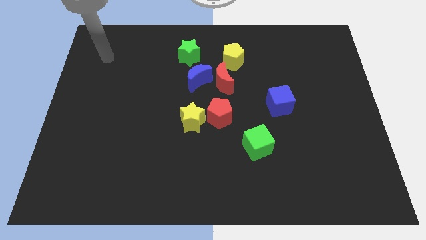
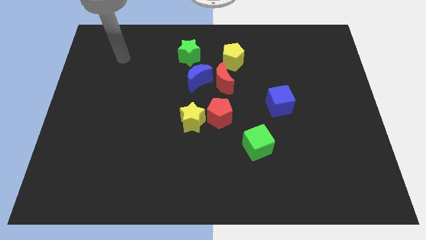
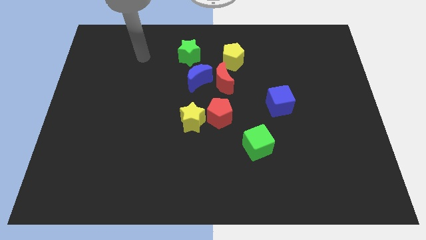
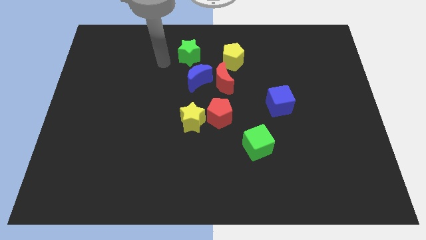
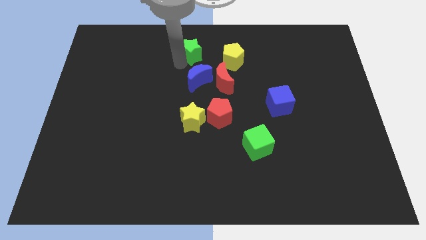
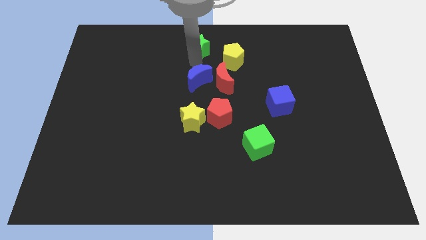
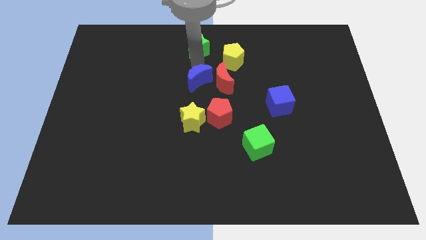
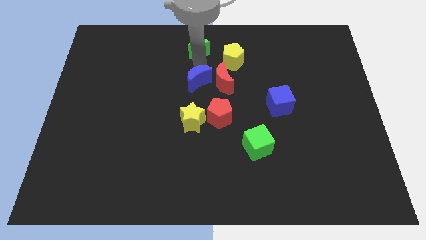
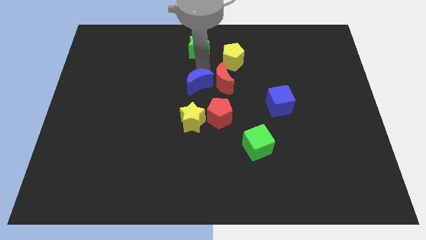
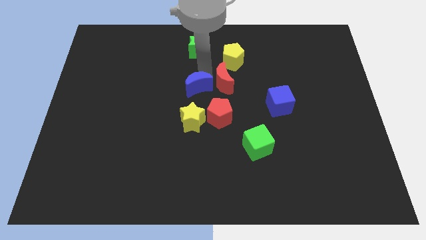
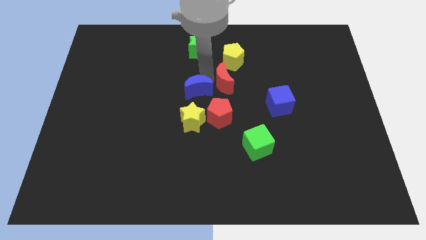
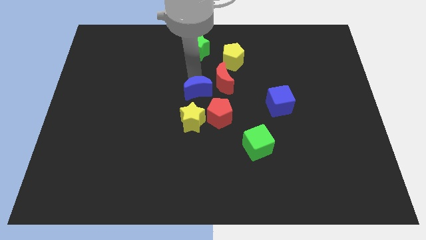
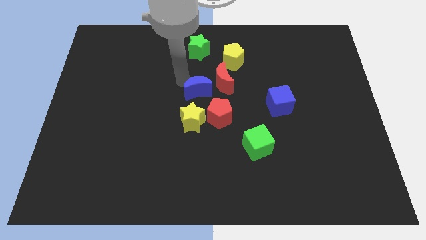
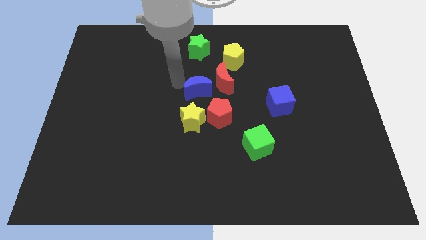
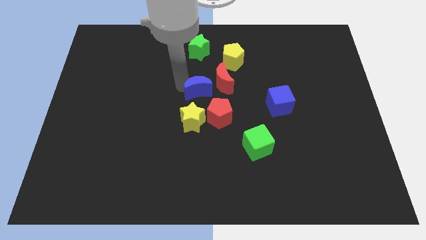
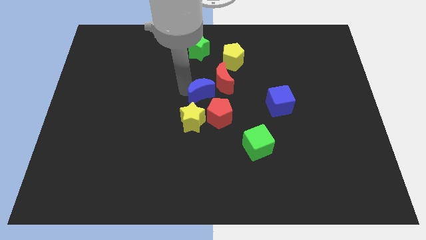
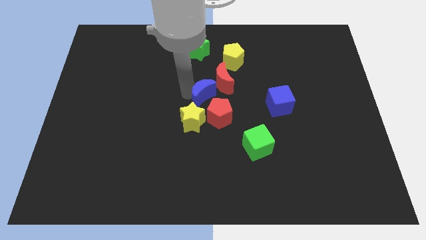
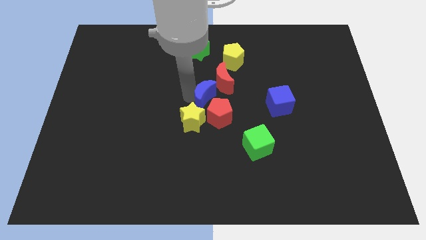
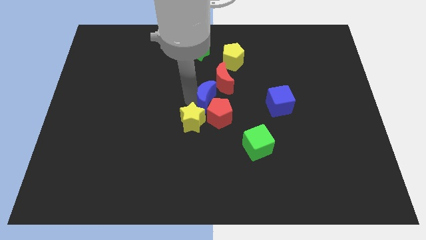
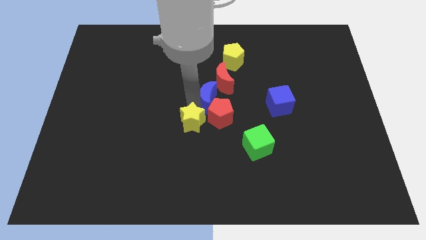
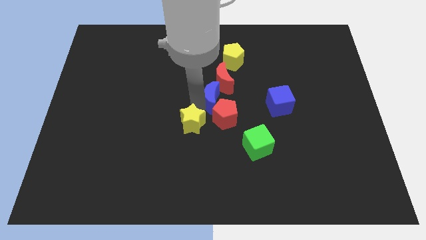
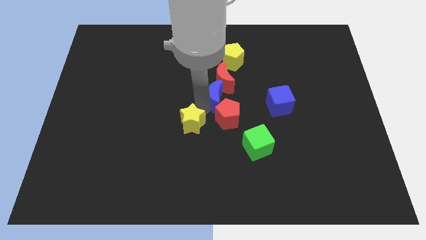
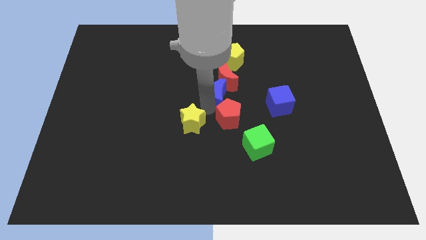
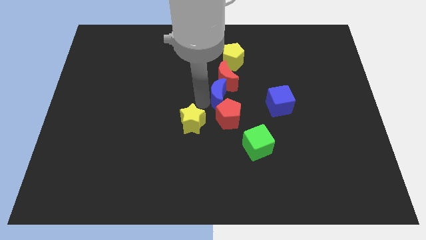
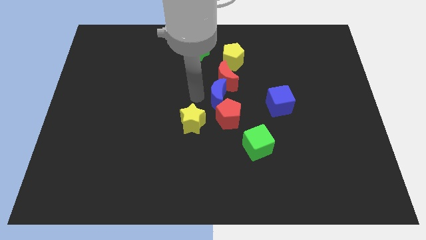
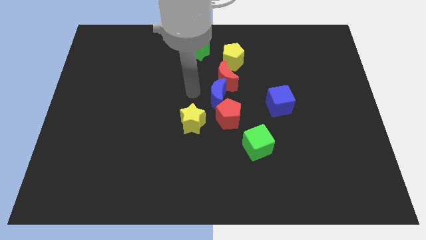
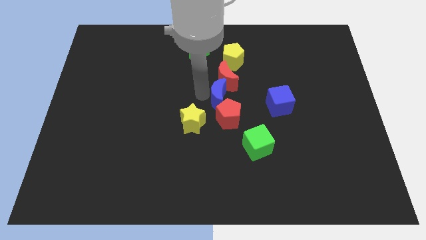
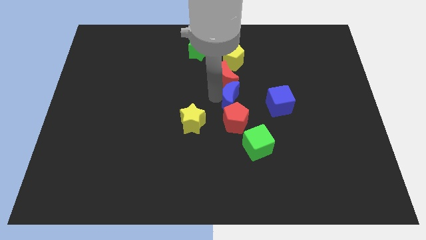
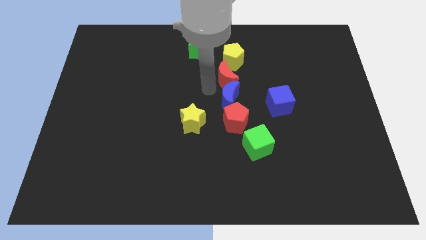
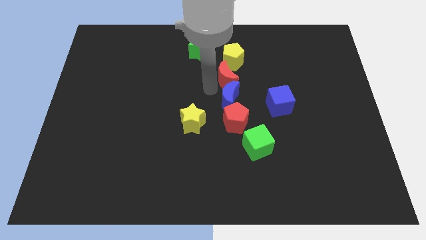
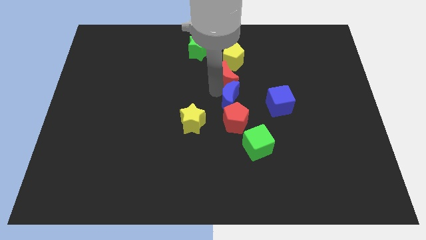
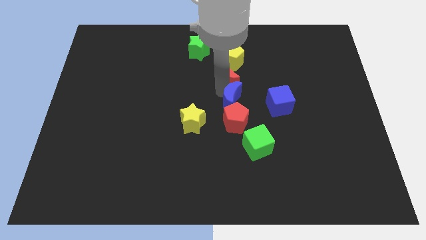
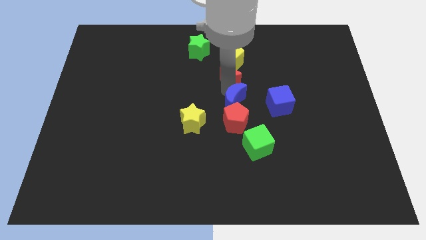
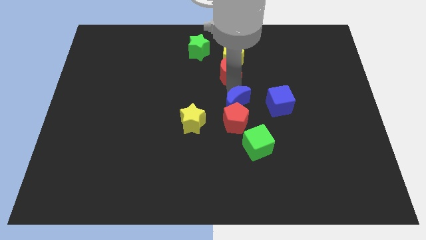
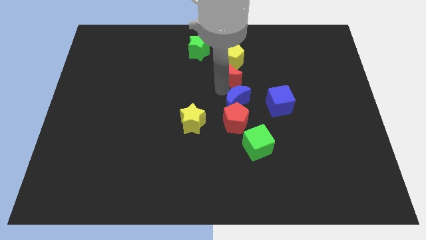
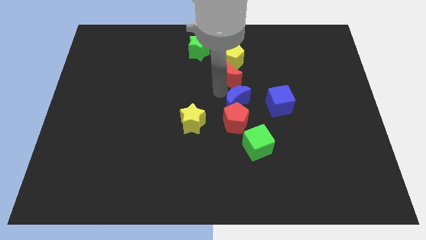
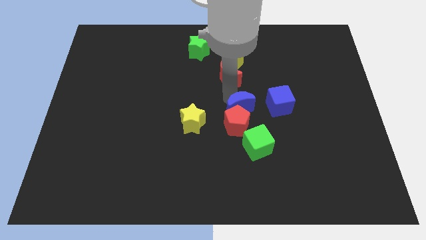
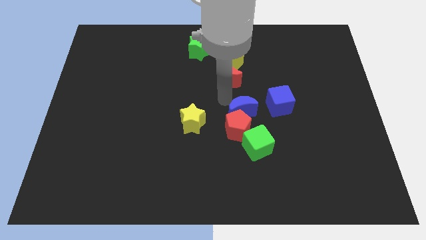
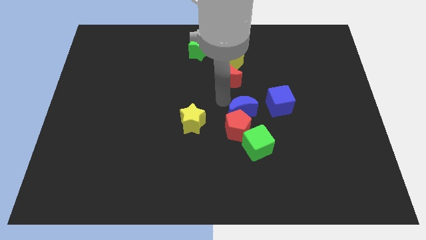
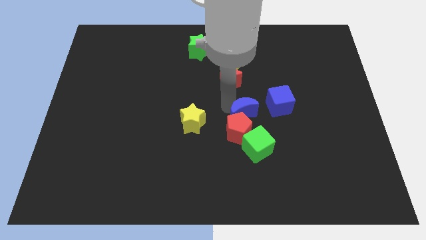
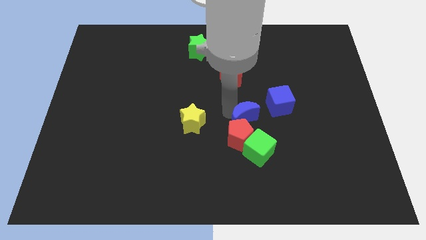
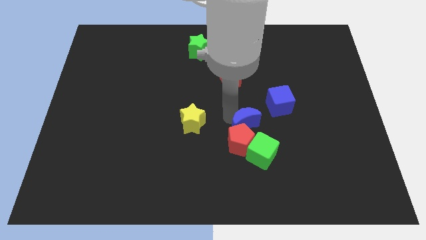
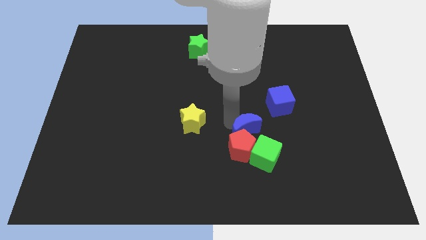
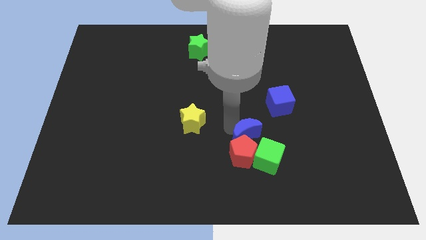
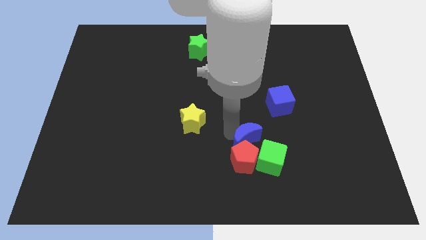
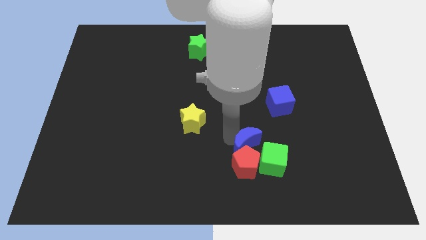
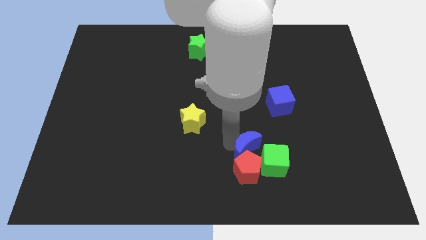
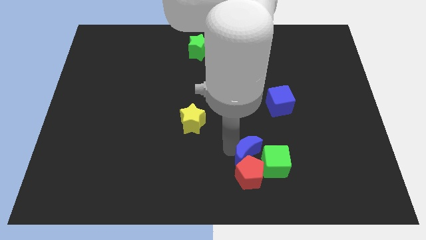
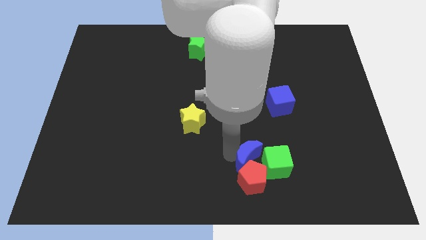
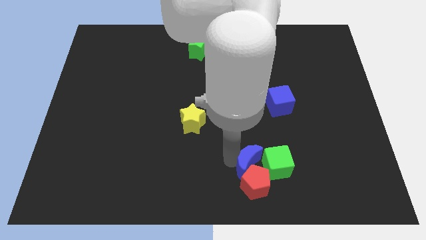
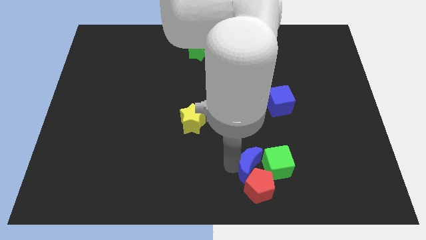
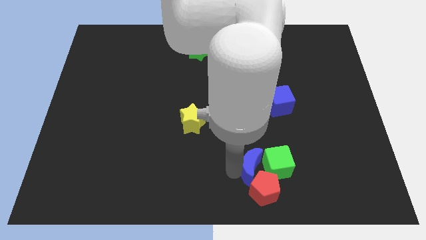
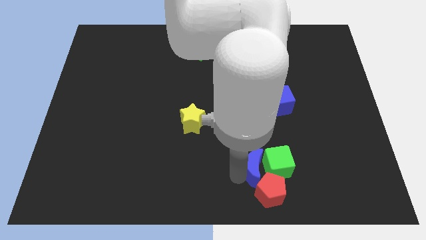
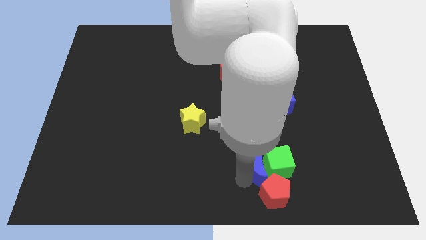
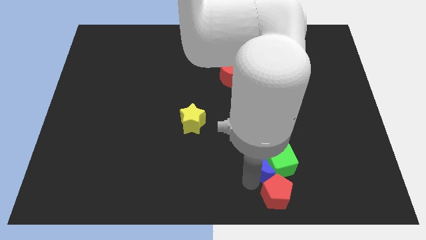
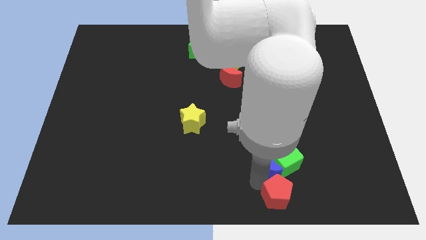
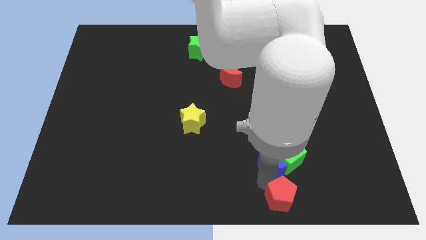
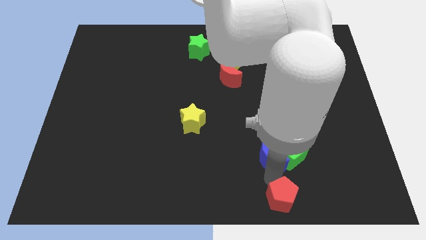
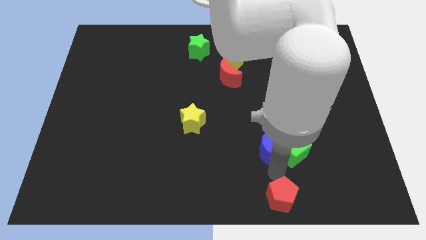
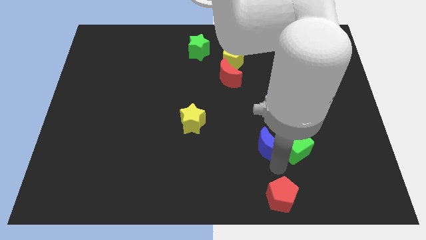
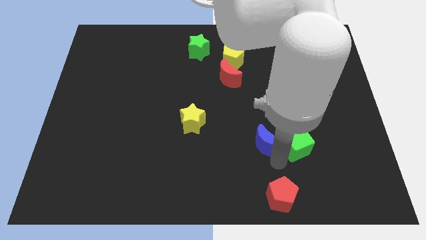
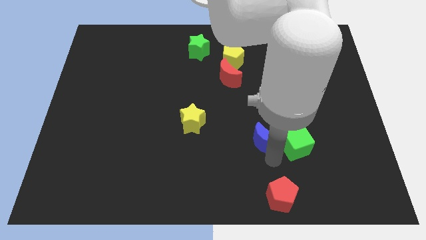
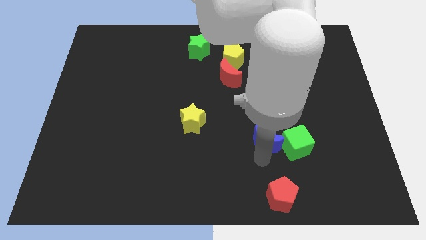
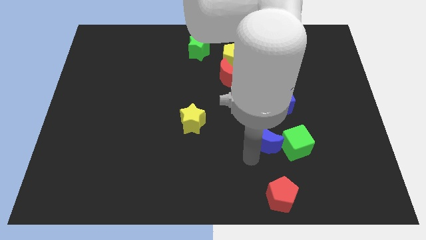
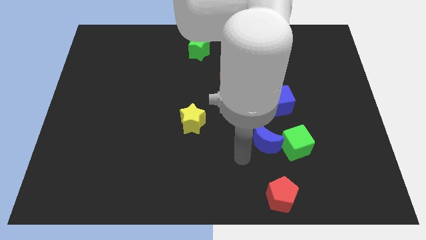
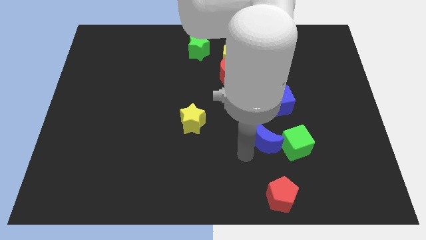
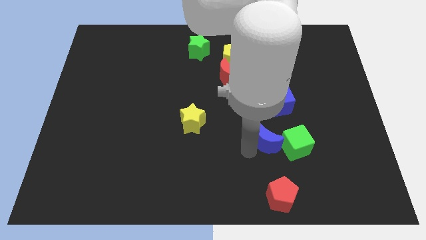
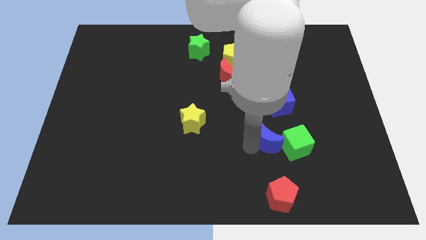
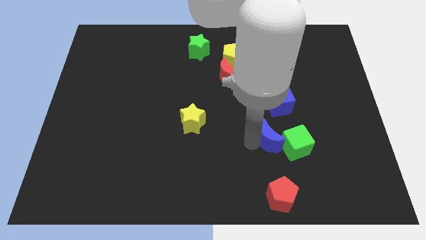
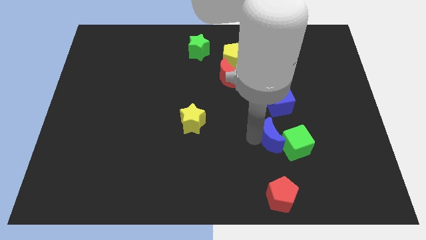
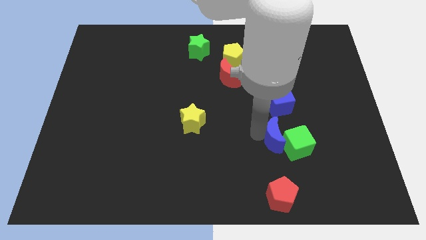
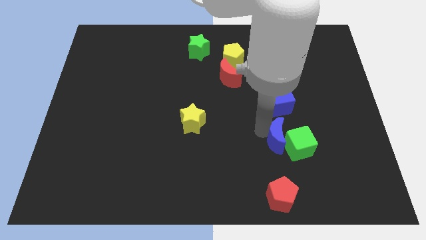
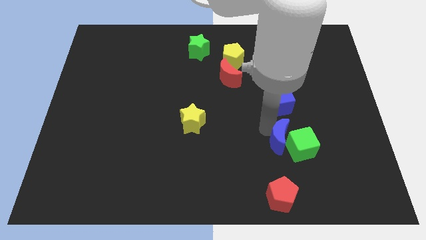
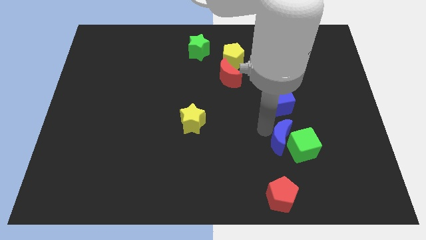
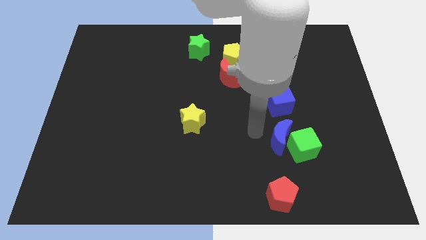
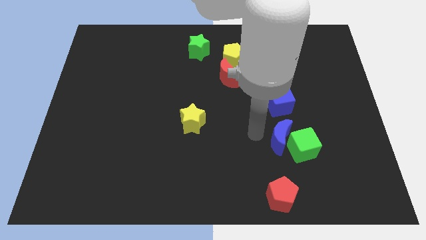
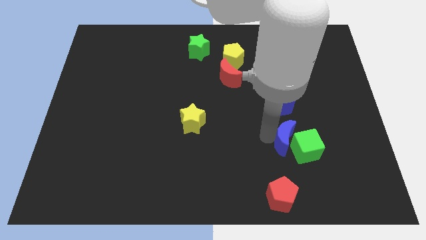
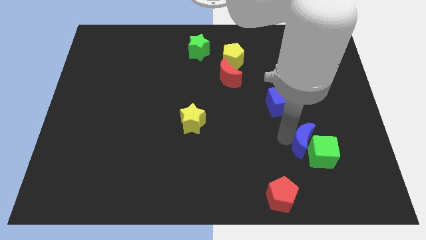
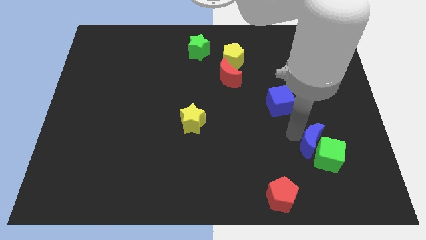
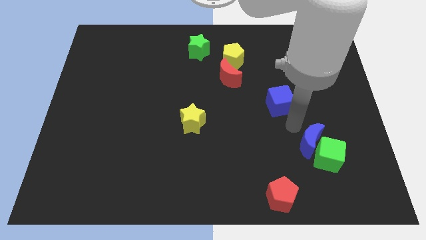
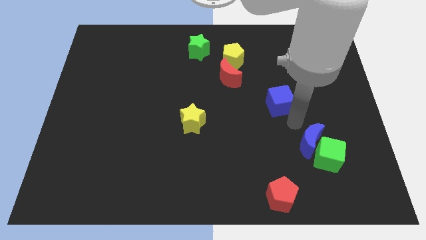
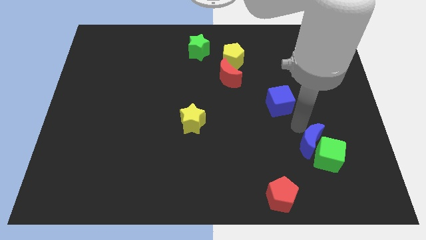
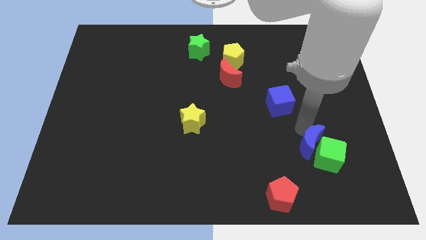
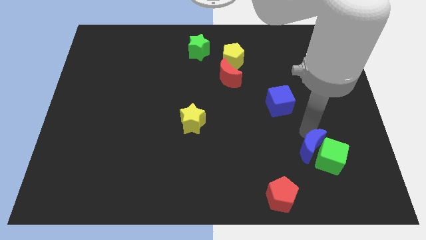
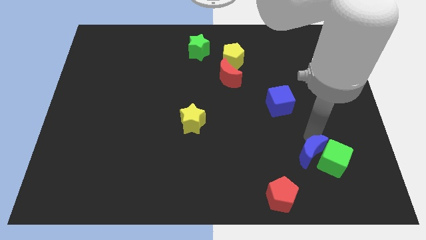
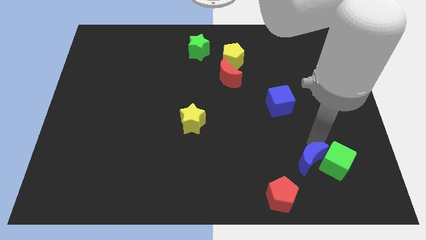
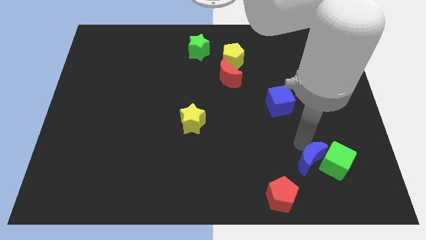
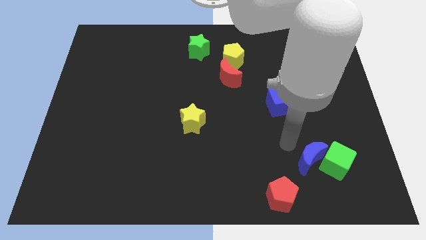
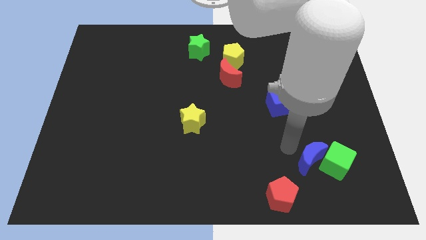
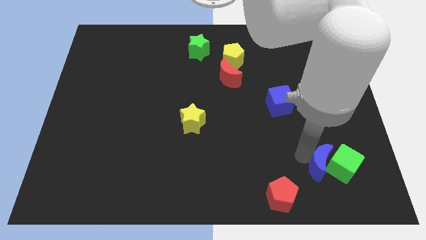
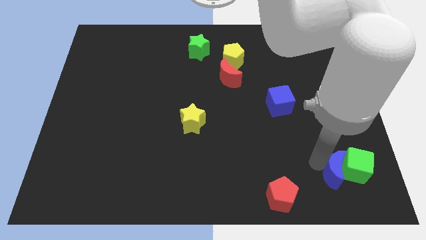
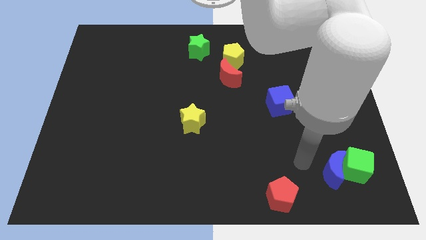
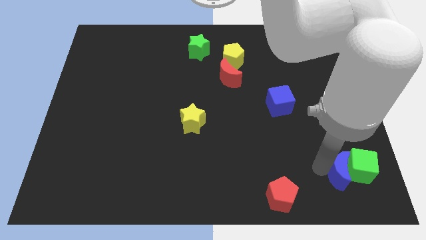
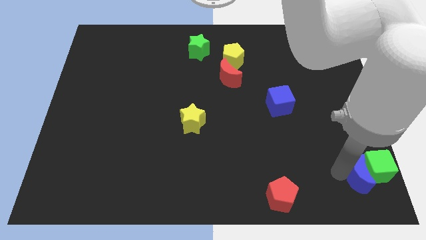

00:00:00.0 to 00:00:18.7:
slide the blue moon to the bottom right
